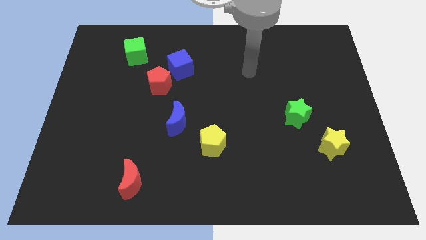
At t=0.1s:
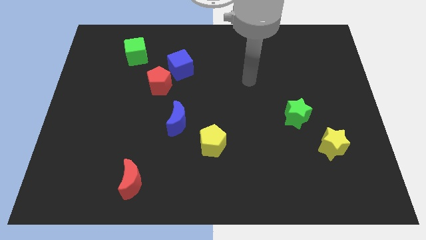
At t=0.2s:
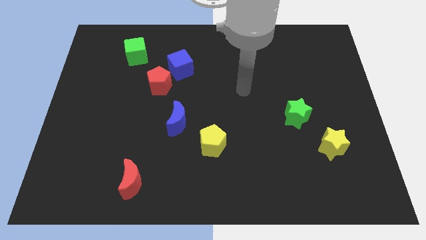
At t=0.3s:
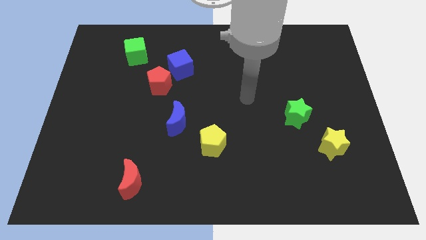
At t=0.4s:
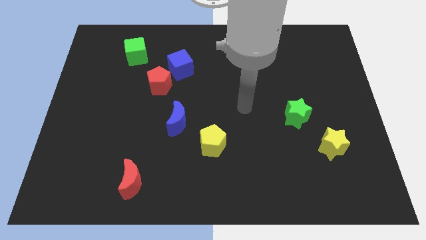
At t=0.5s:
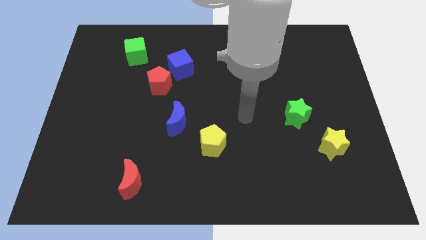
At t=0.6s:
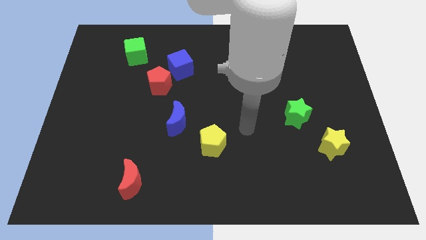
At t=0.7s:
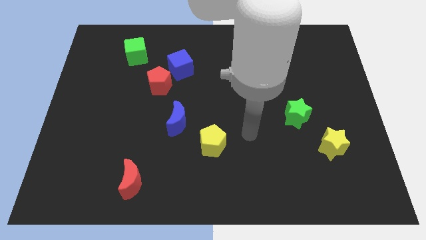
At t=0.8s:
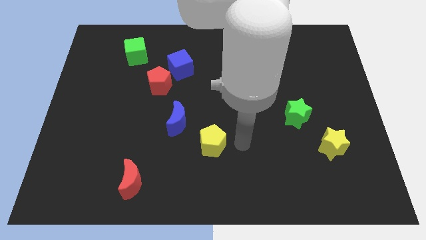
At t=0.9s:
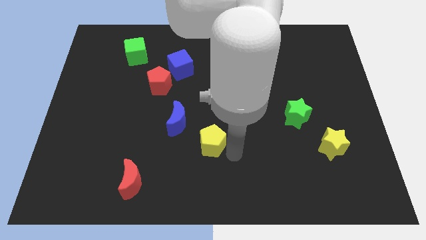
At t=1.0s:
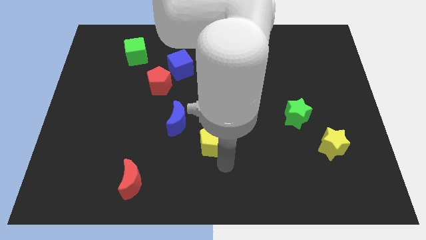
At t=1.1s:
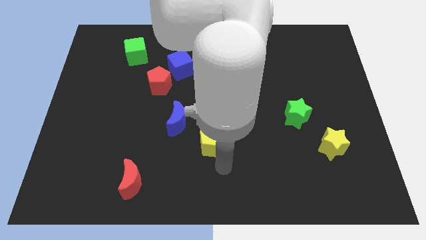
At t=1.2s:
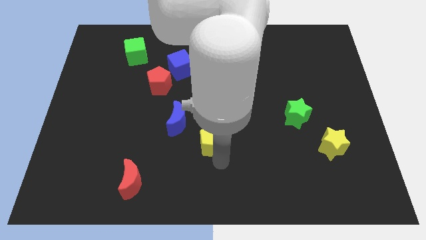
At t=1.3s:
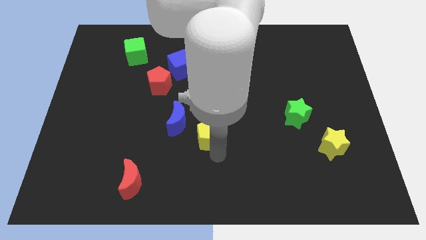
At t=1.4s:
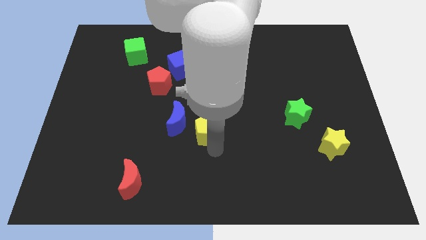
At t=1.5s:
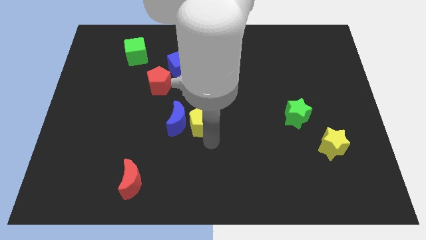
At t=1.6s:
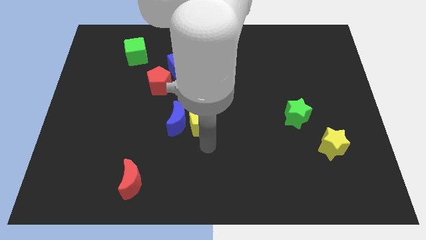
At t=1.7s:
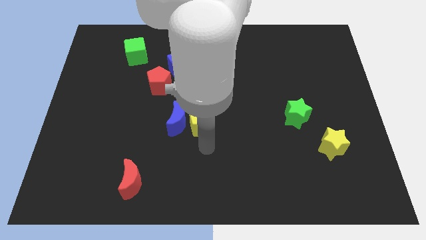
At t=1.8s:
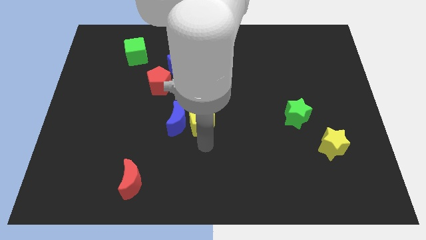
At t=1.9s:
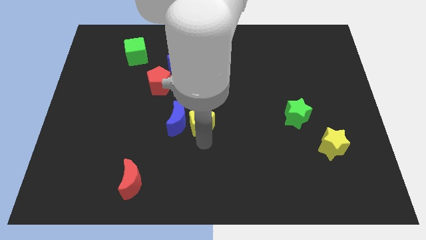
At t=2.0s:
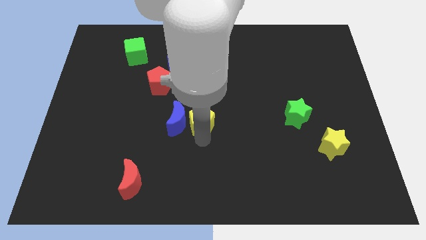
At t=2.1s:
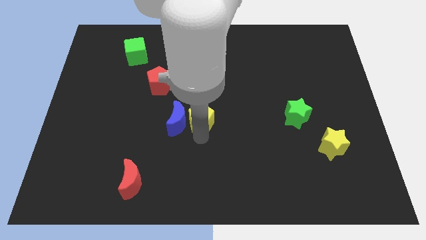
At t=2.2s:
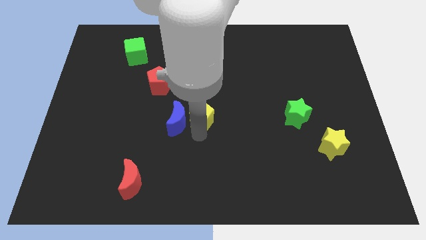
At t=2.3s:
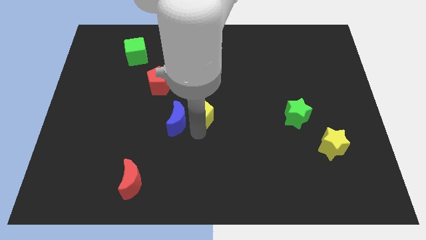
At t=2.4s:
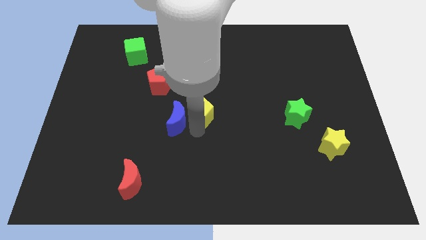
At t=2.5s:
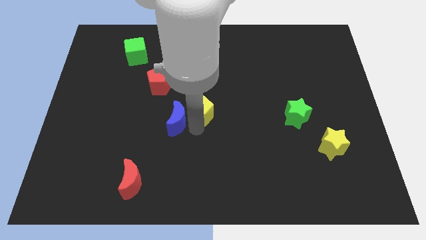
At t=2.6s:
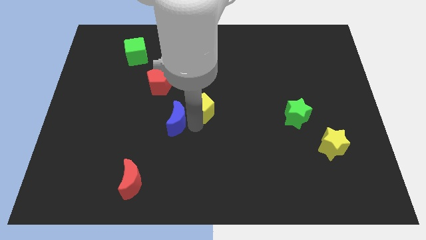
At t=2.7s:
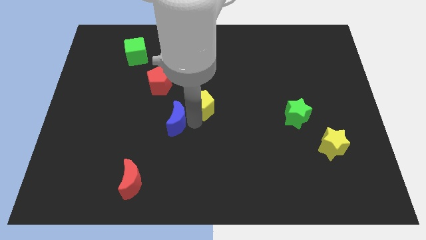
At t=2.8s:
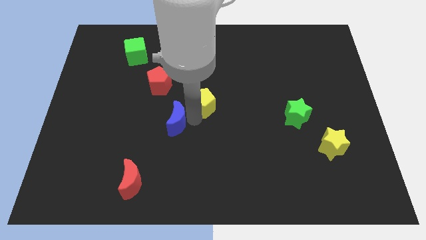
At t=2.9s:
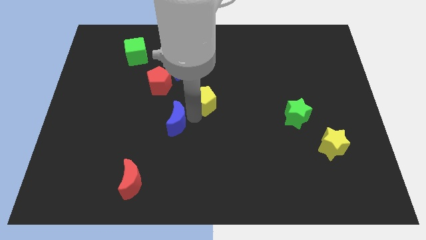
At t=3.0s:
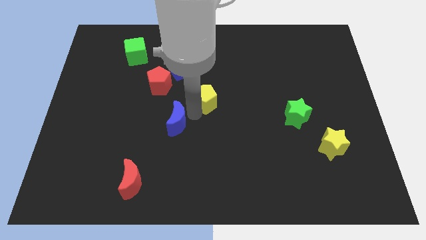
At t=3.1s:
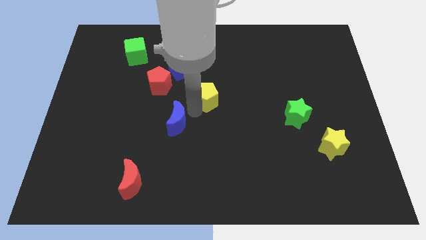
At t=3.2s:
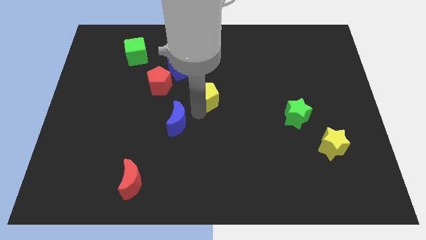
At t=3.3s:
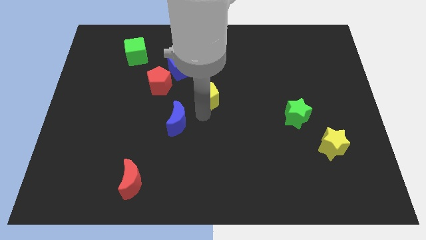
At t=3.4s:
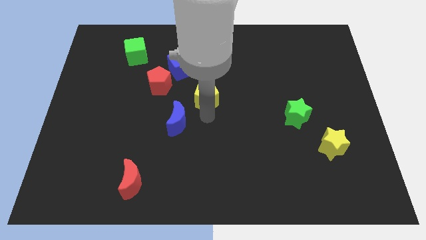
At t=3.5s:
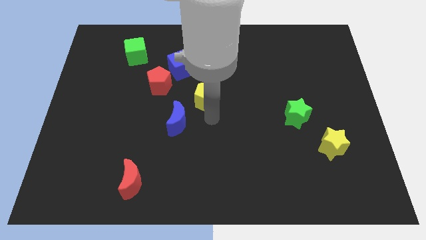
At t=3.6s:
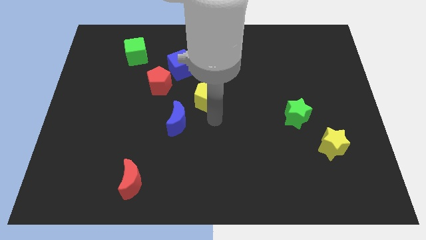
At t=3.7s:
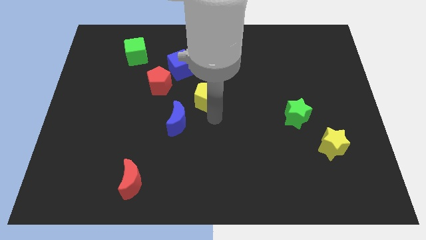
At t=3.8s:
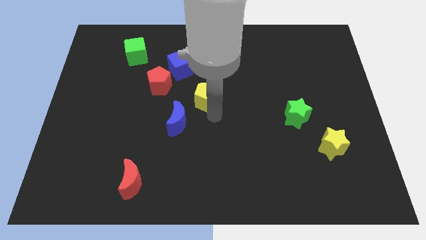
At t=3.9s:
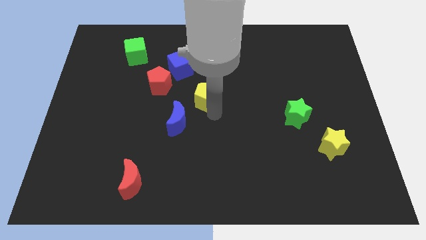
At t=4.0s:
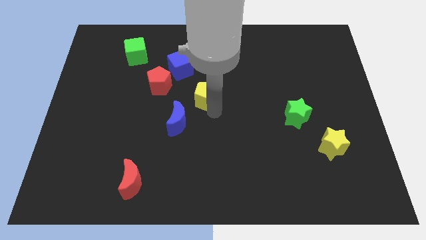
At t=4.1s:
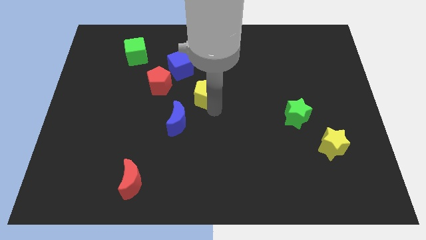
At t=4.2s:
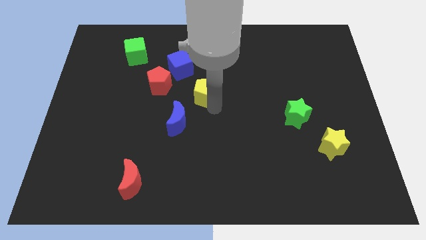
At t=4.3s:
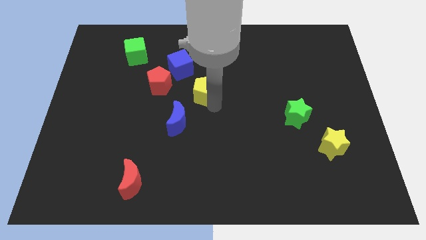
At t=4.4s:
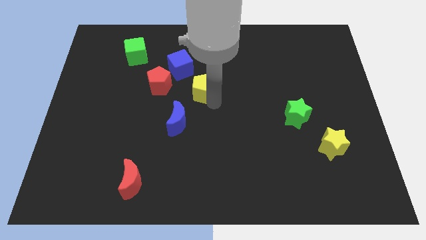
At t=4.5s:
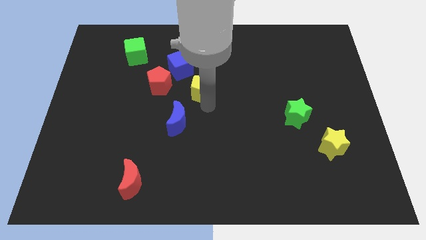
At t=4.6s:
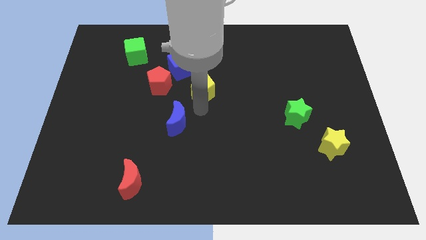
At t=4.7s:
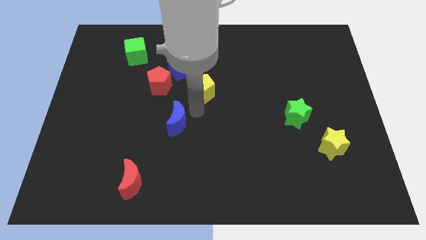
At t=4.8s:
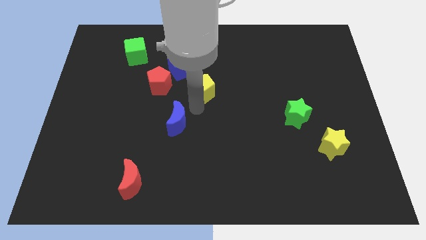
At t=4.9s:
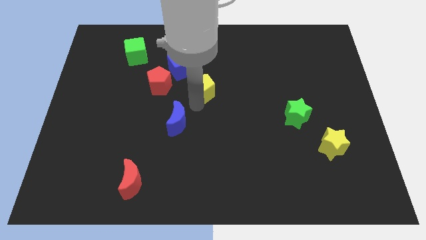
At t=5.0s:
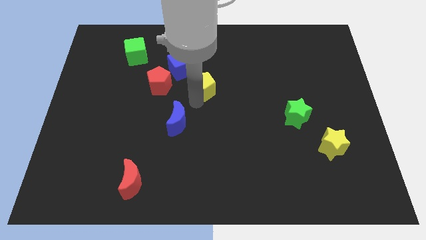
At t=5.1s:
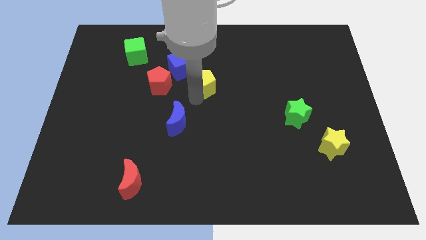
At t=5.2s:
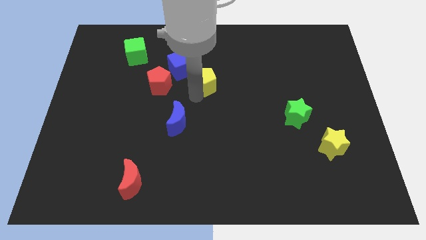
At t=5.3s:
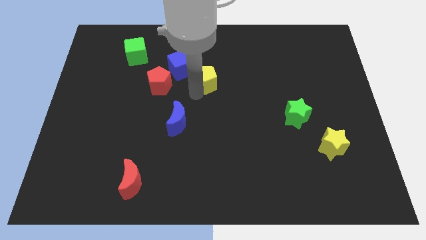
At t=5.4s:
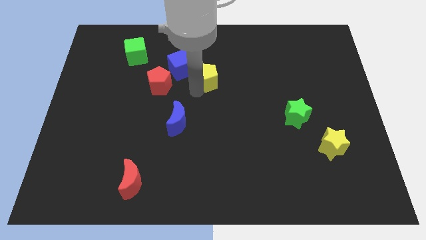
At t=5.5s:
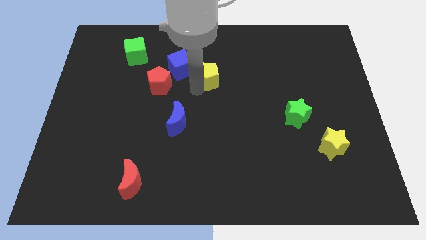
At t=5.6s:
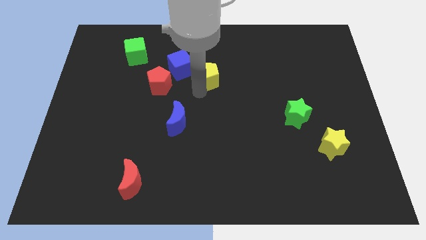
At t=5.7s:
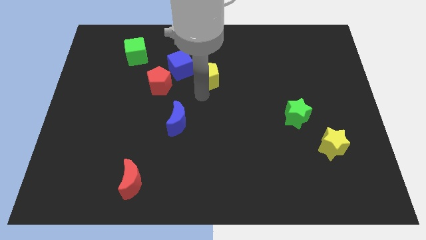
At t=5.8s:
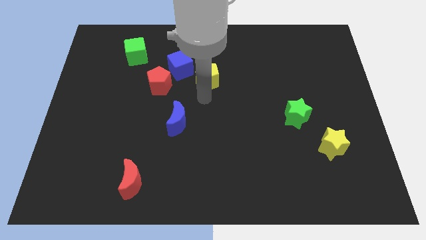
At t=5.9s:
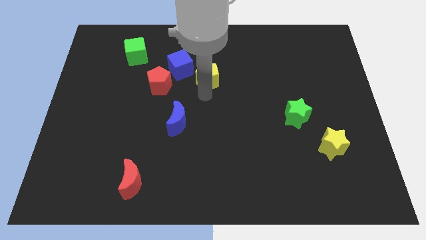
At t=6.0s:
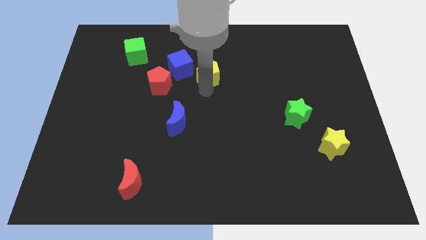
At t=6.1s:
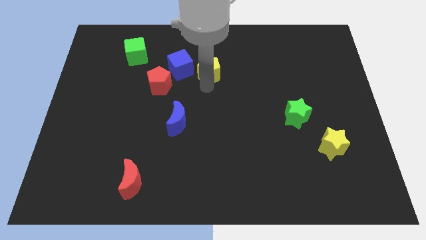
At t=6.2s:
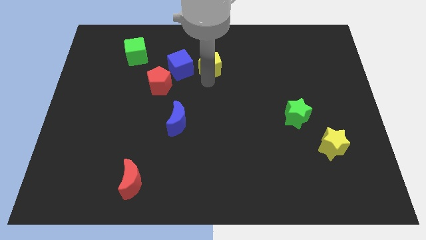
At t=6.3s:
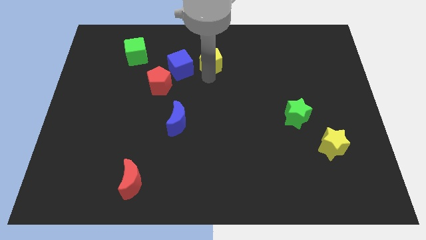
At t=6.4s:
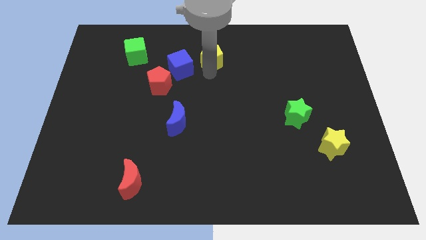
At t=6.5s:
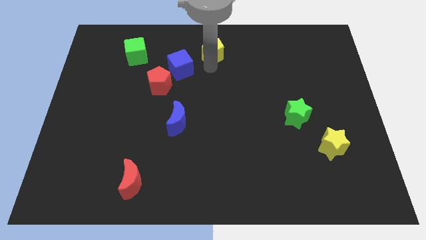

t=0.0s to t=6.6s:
push the yellow pentagon to the top
